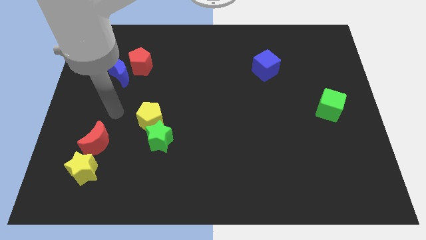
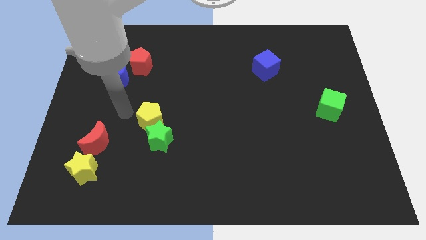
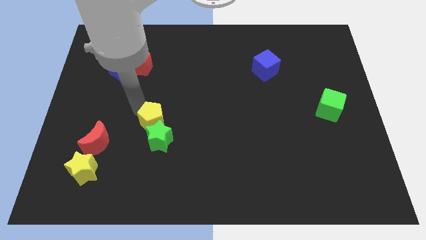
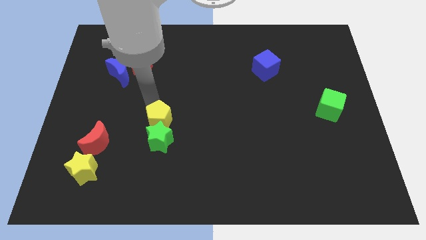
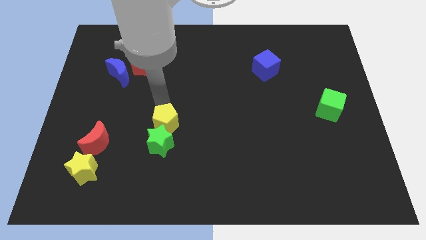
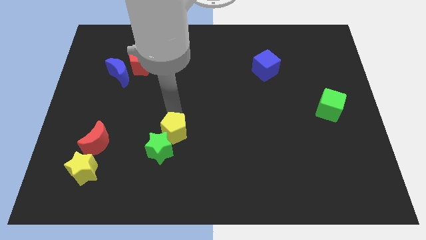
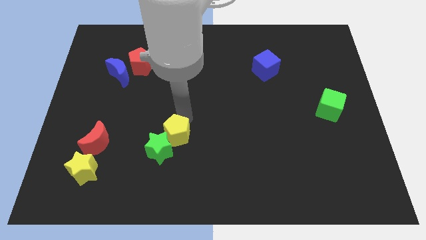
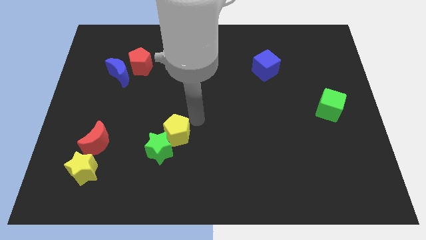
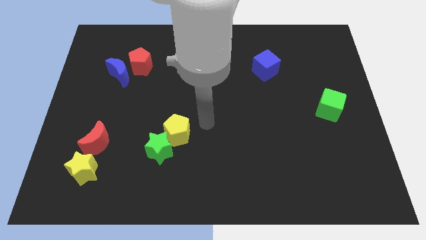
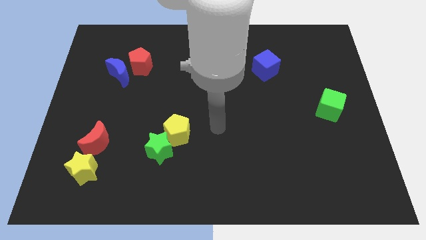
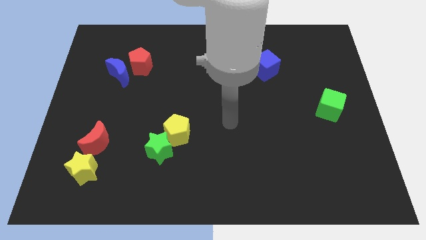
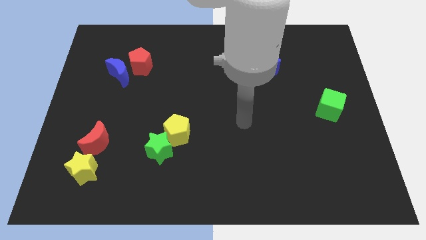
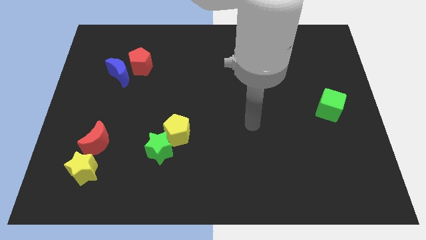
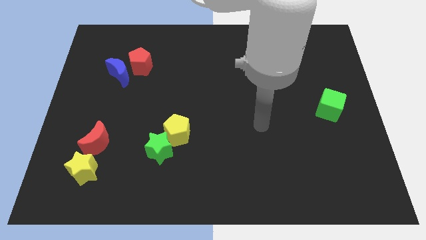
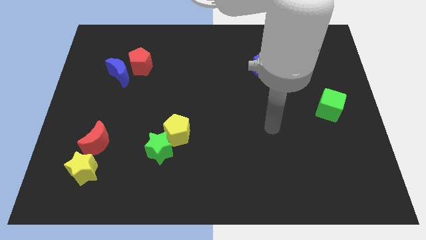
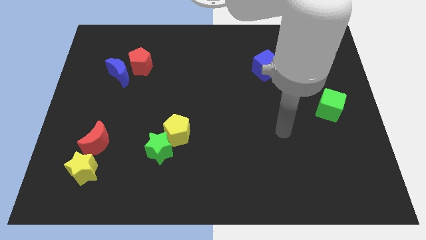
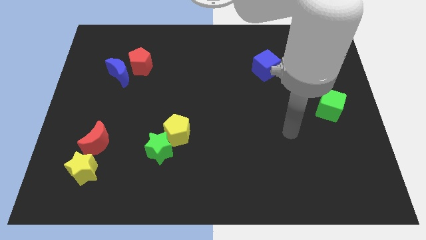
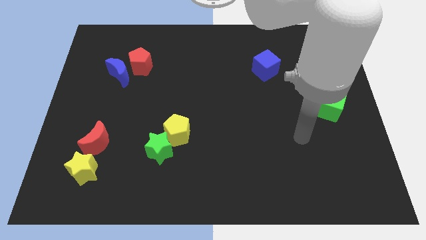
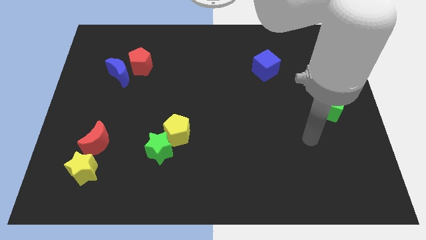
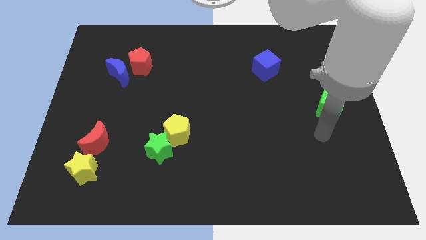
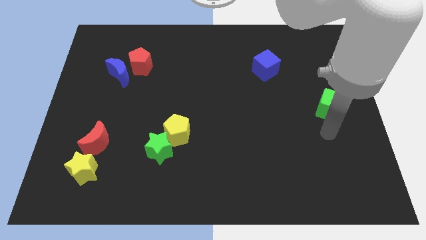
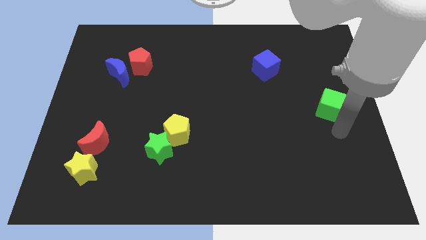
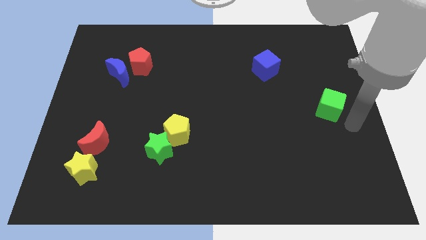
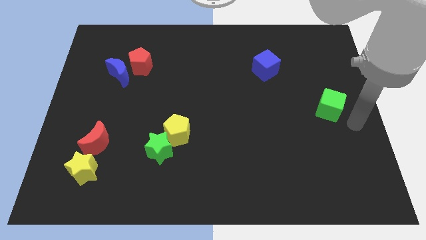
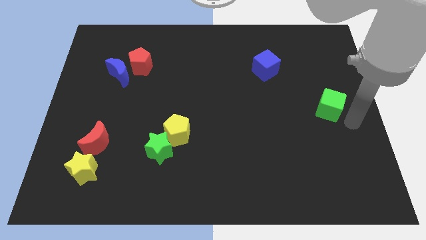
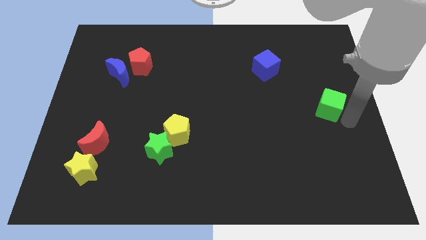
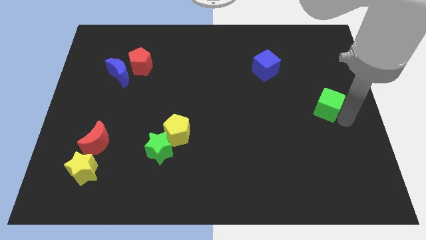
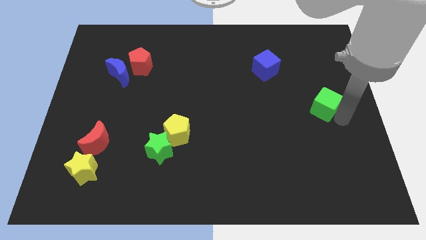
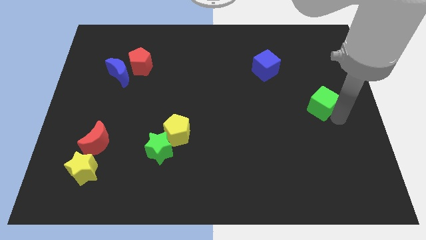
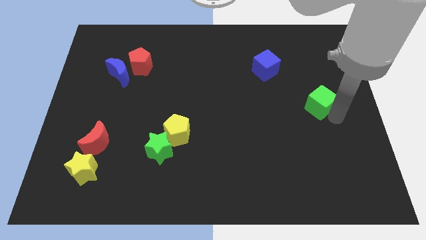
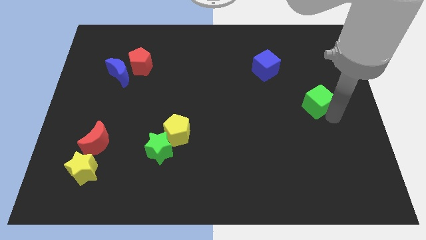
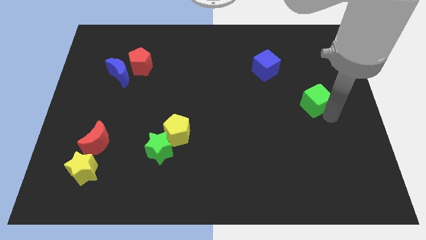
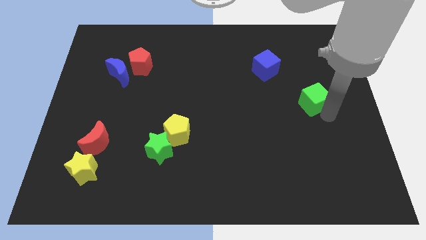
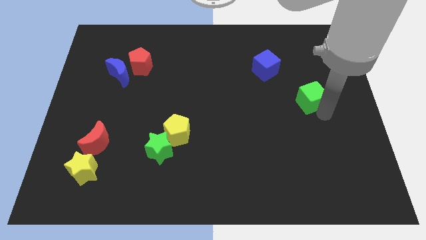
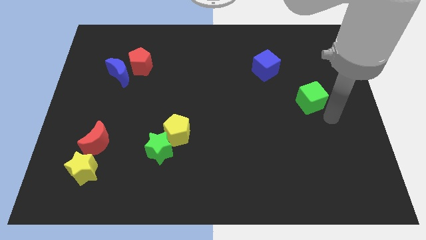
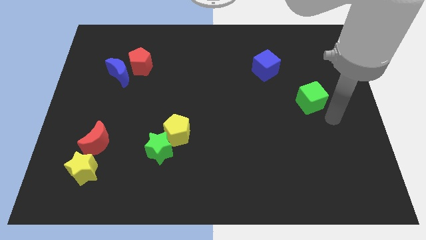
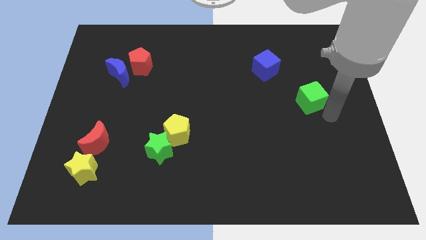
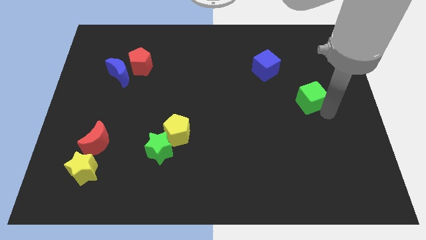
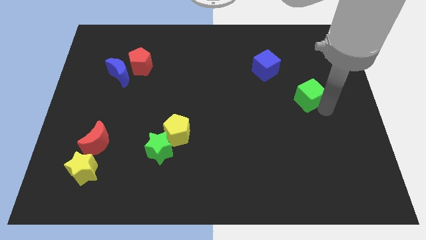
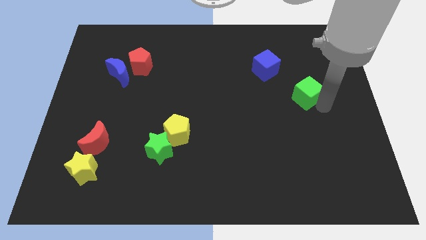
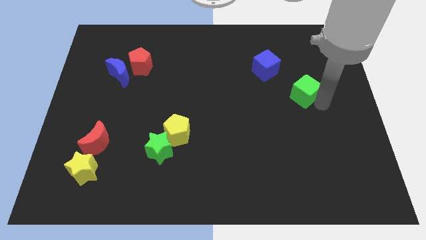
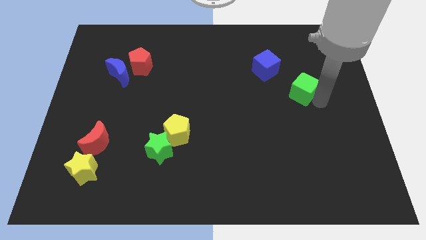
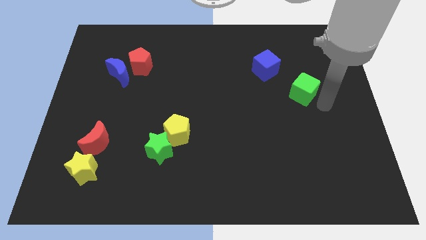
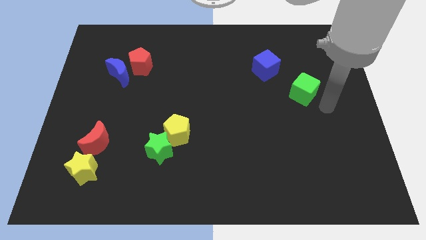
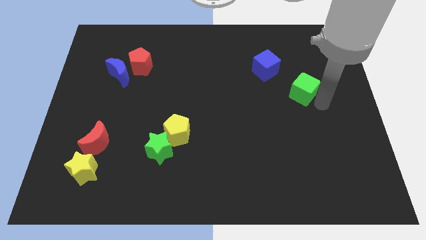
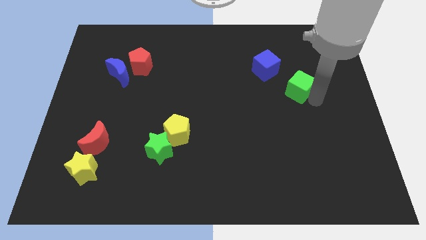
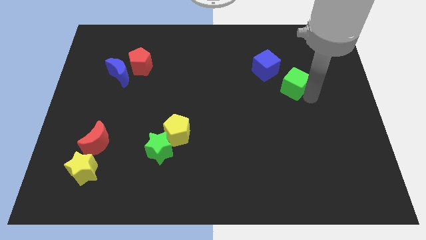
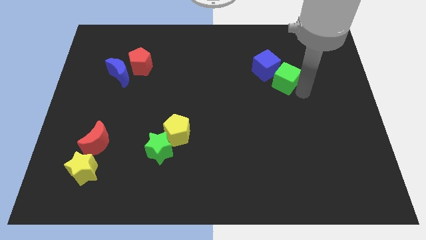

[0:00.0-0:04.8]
put the green cube to the blue cube

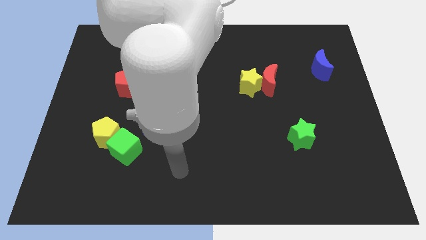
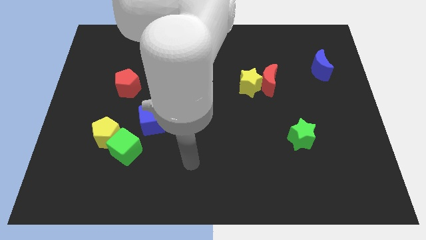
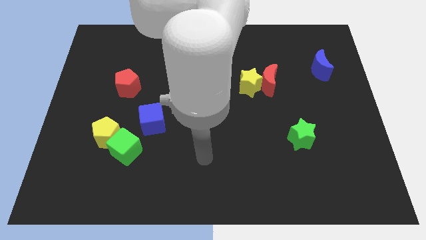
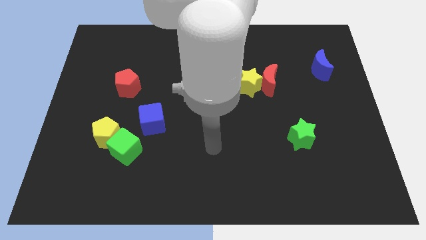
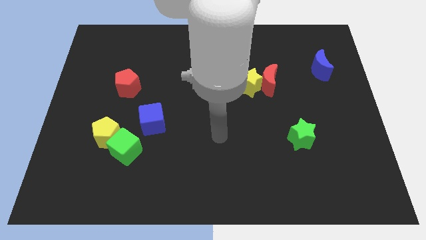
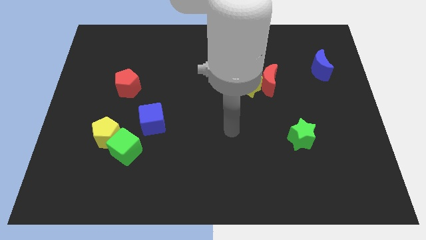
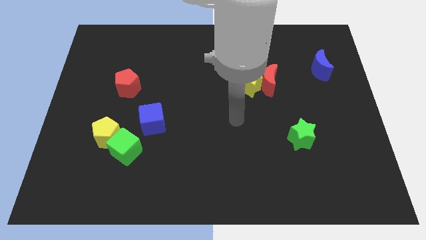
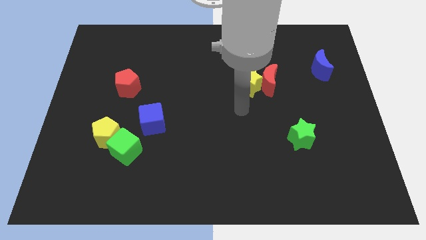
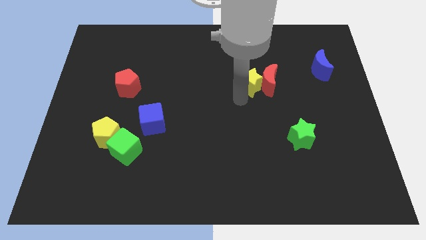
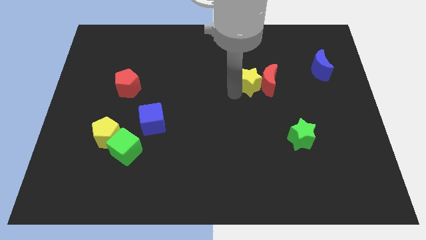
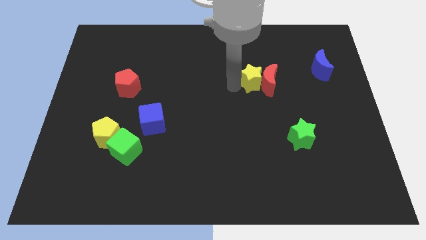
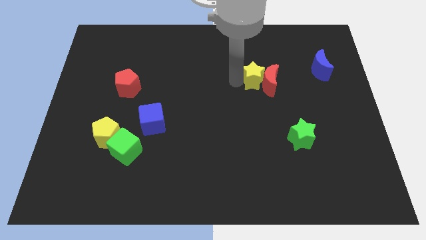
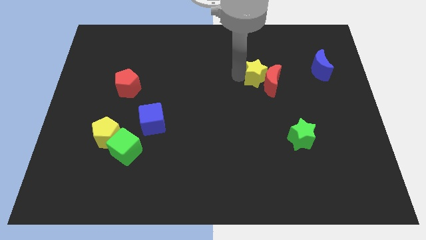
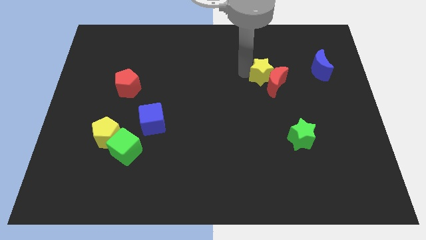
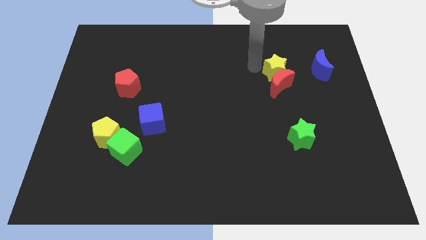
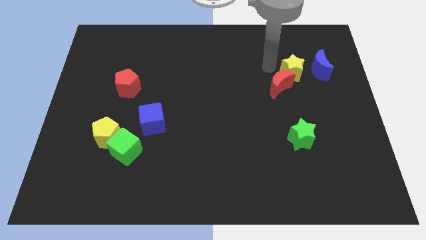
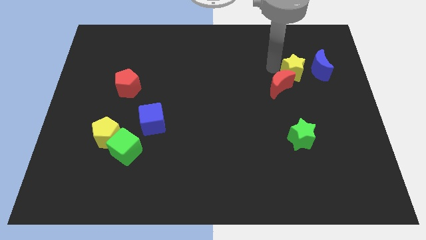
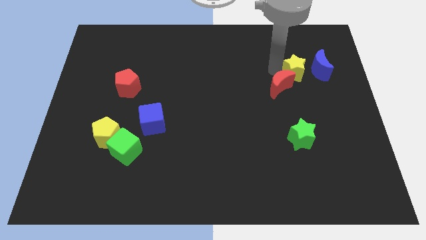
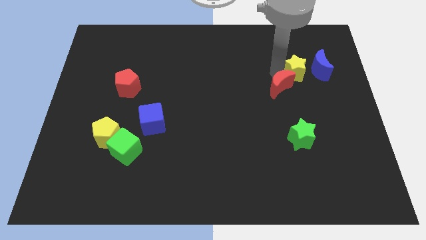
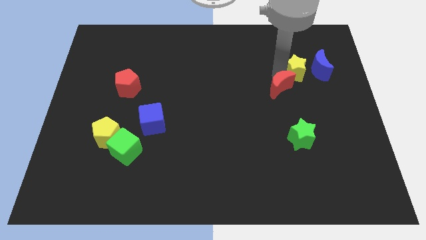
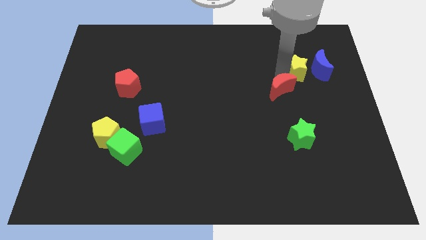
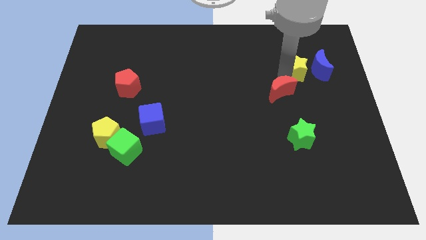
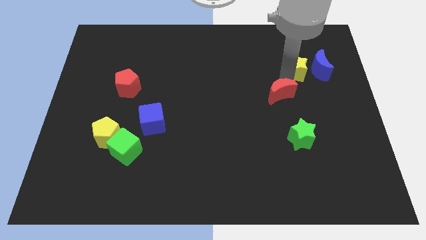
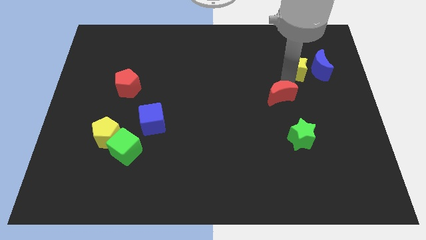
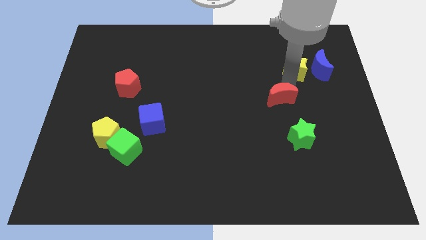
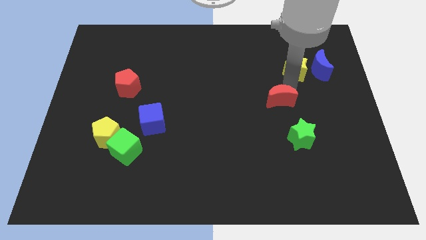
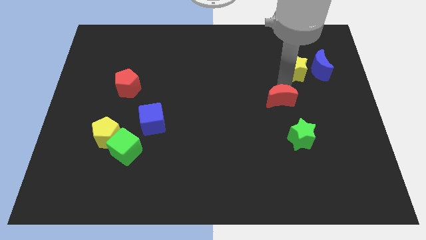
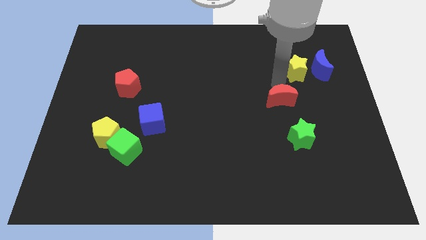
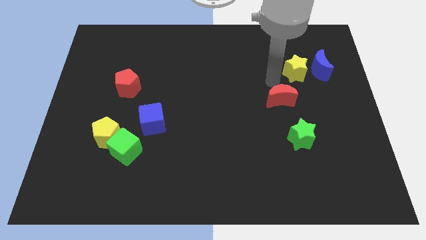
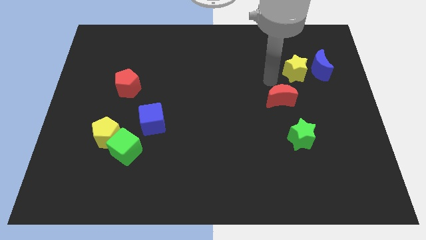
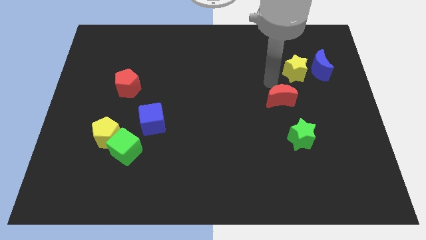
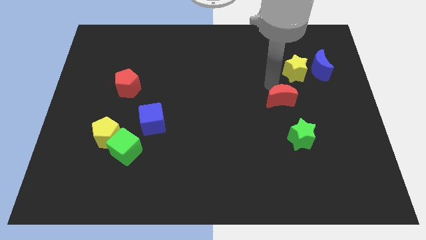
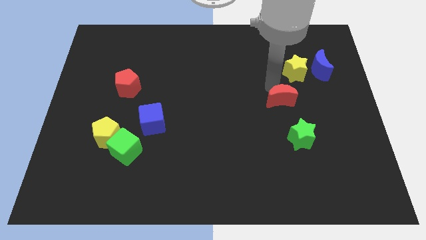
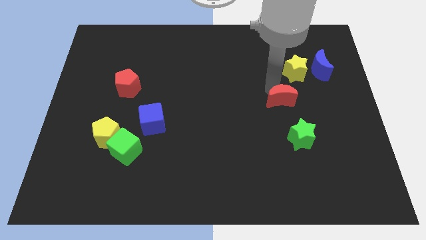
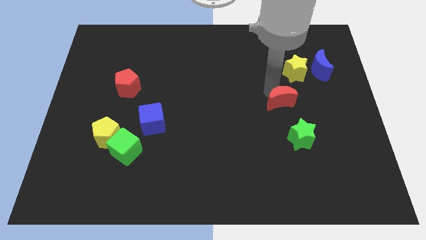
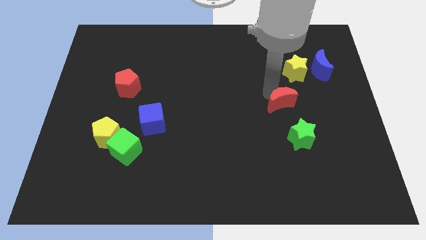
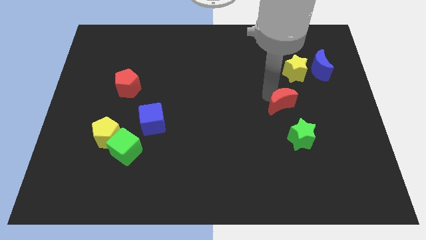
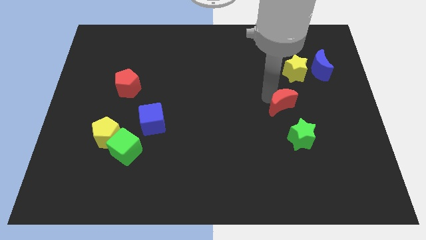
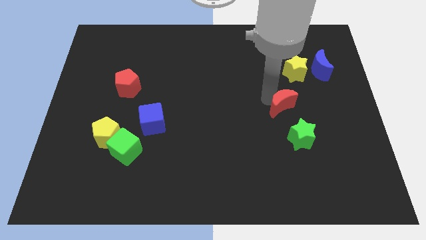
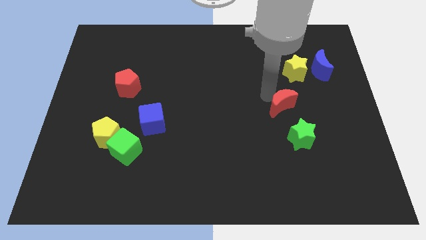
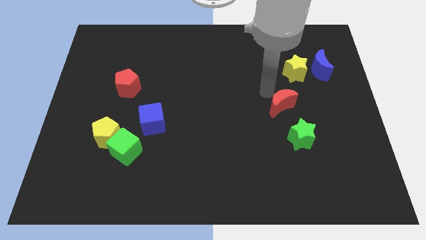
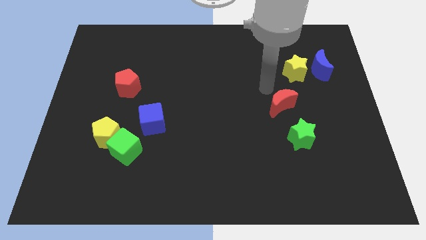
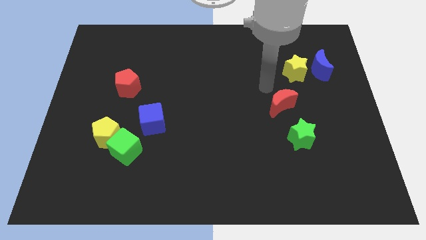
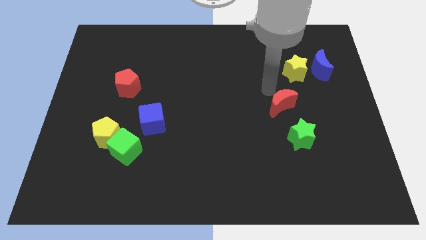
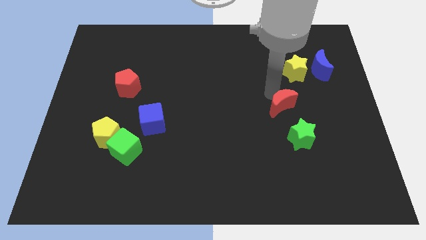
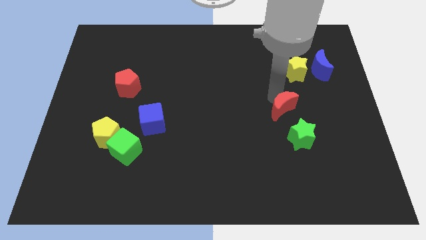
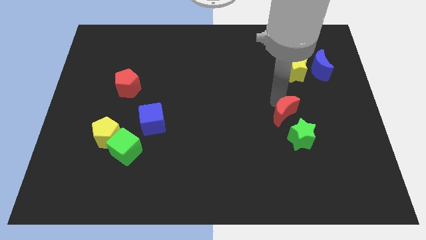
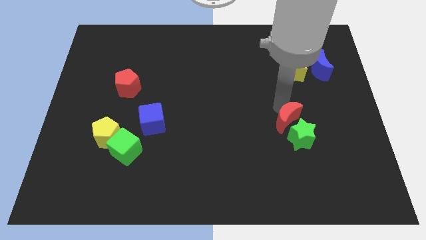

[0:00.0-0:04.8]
put the red moon close to the green star
